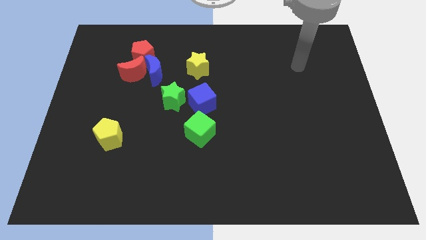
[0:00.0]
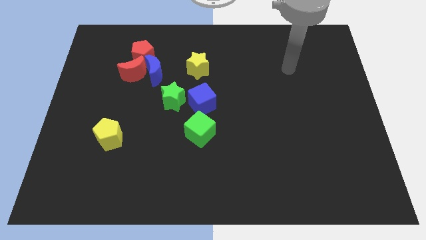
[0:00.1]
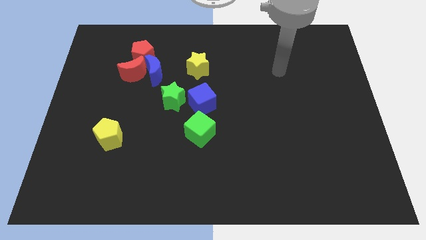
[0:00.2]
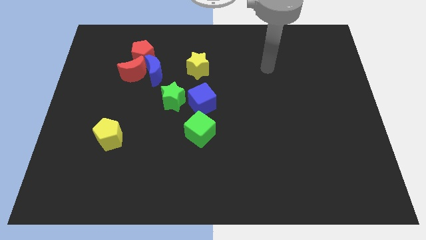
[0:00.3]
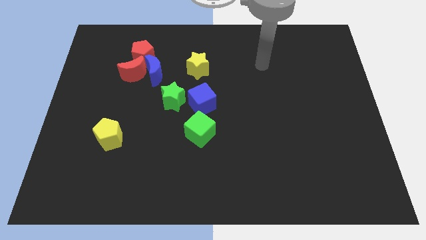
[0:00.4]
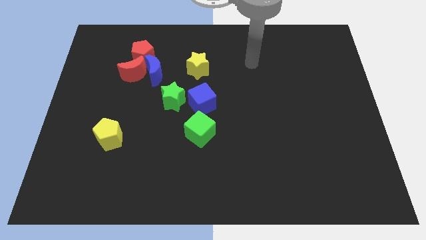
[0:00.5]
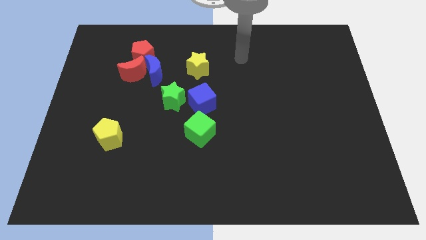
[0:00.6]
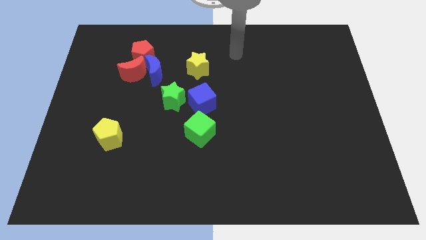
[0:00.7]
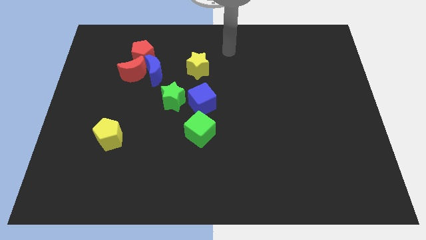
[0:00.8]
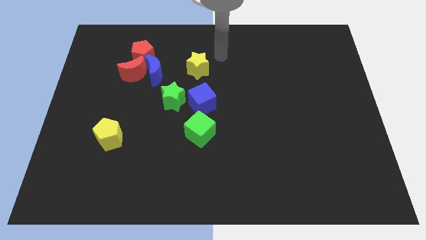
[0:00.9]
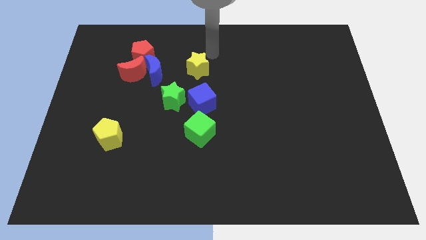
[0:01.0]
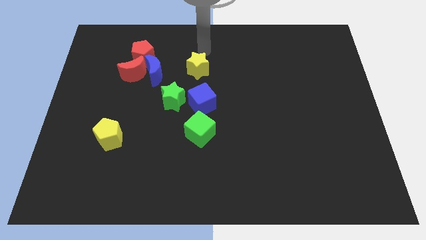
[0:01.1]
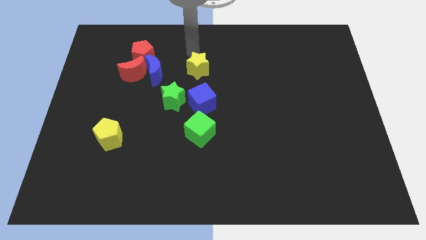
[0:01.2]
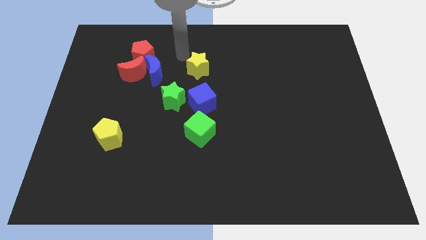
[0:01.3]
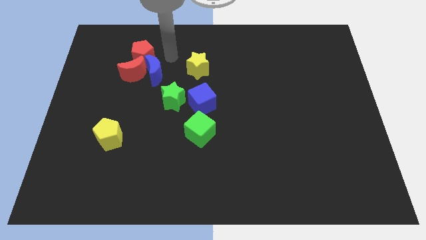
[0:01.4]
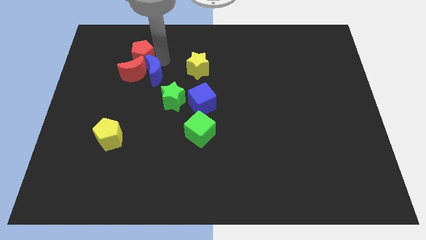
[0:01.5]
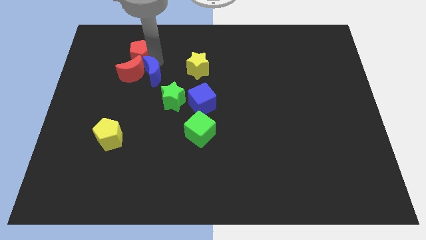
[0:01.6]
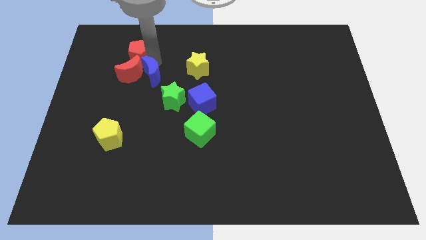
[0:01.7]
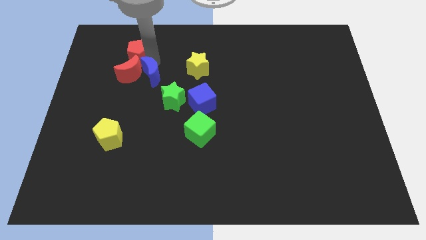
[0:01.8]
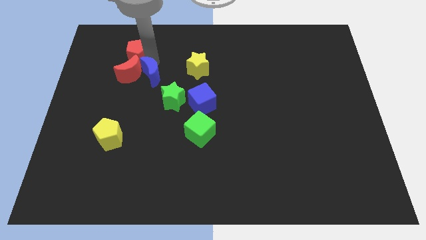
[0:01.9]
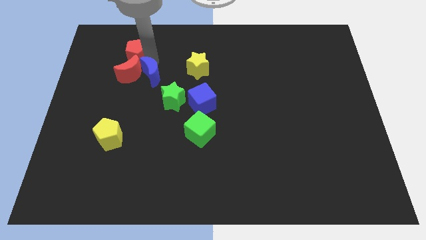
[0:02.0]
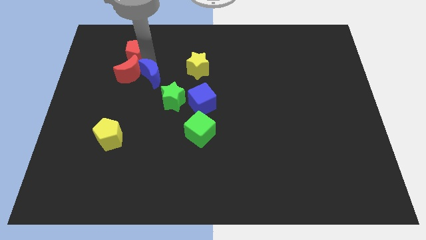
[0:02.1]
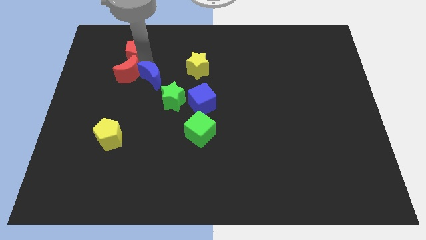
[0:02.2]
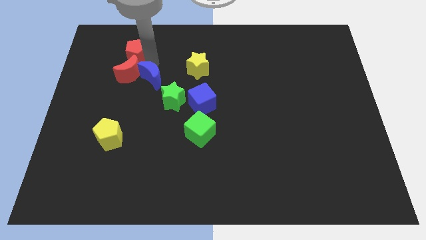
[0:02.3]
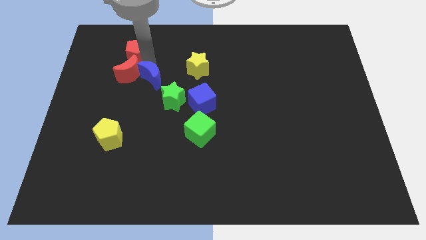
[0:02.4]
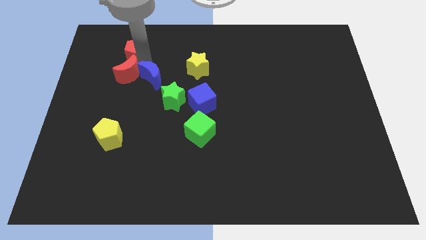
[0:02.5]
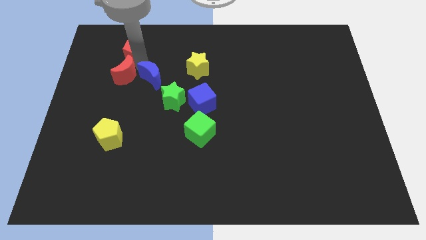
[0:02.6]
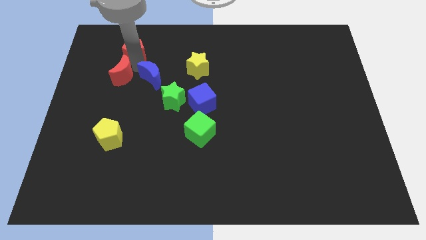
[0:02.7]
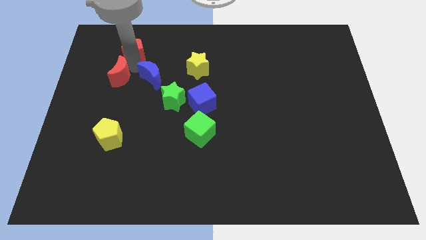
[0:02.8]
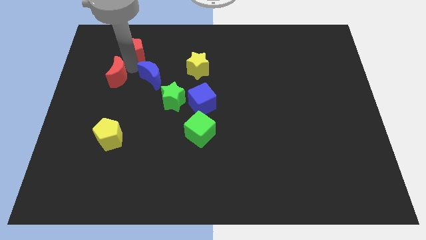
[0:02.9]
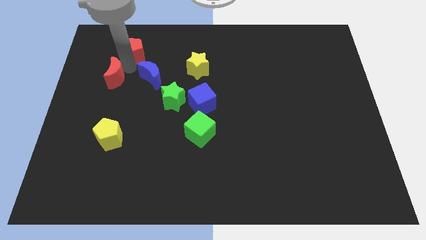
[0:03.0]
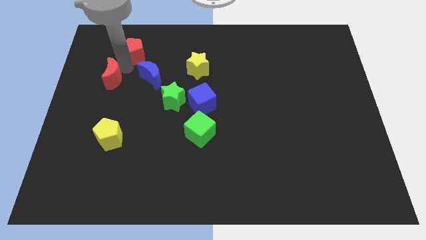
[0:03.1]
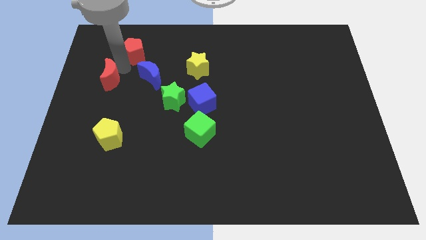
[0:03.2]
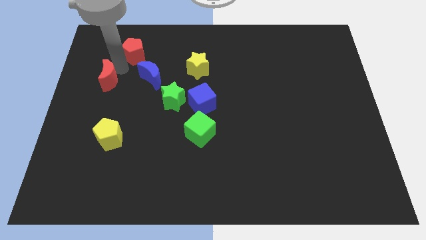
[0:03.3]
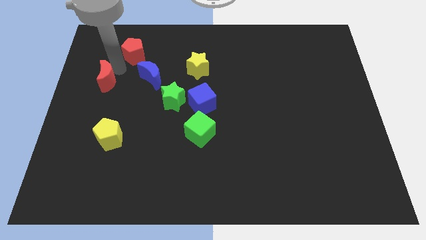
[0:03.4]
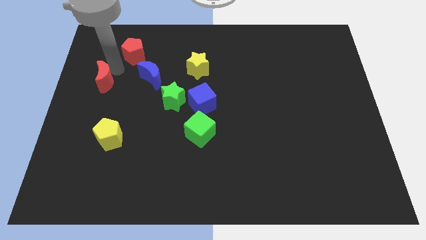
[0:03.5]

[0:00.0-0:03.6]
pull the red moon apart from the blue moon and red pentagon

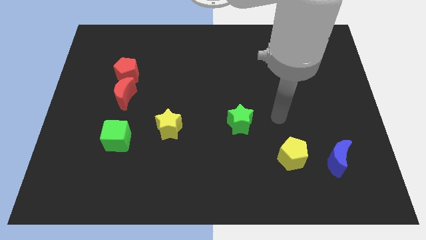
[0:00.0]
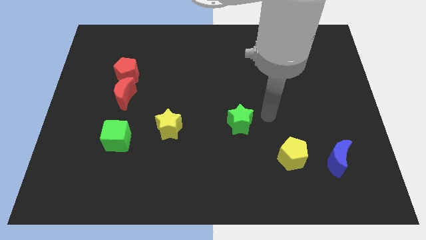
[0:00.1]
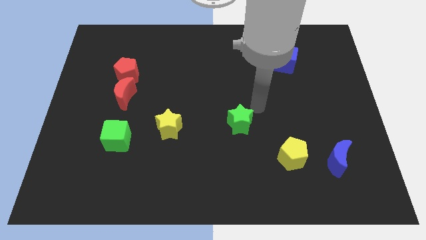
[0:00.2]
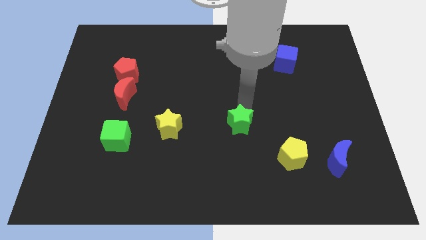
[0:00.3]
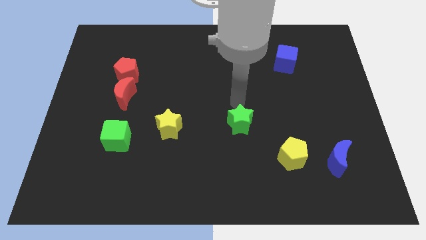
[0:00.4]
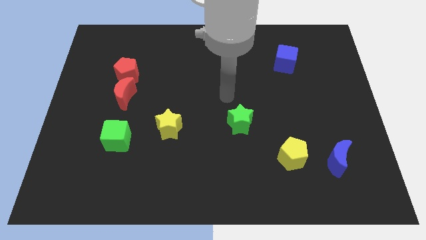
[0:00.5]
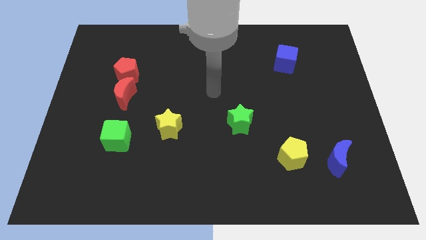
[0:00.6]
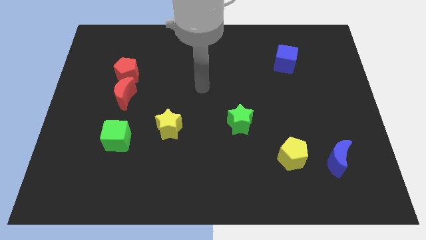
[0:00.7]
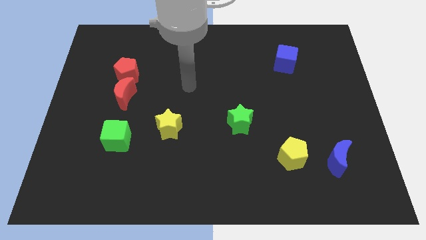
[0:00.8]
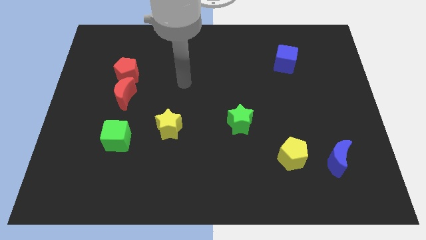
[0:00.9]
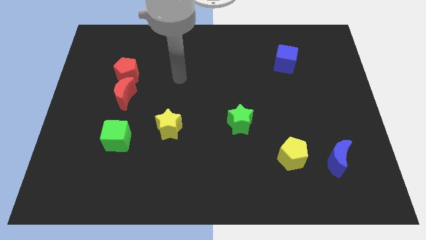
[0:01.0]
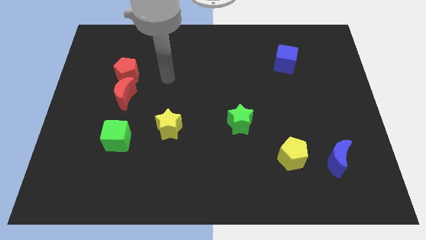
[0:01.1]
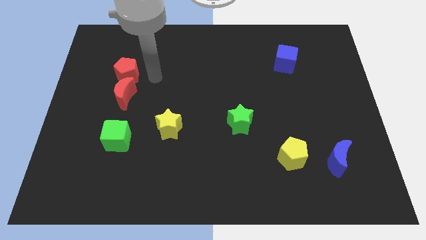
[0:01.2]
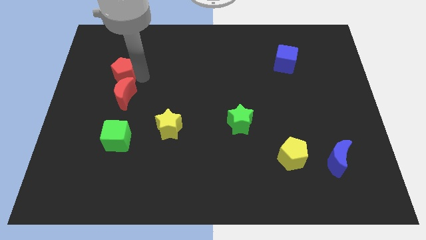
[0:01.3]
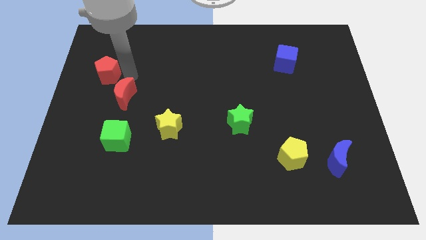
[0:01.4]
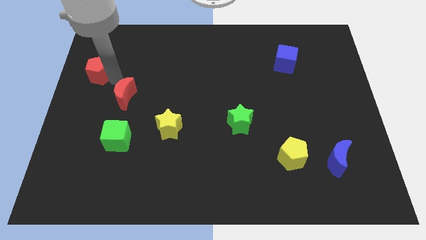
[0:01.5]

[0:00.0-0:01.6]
pull the red moon apart from the red pentagon

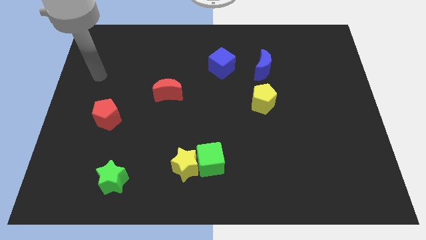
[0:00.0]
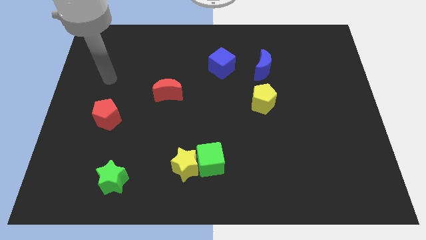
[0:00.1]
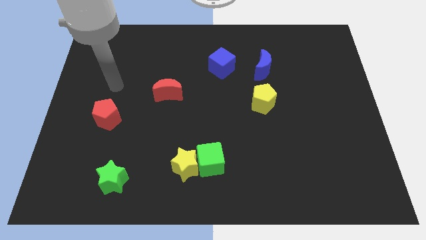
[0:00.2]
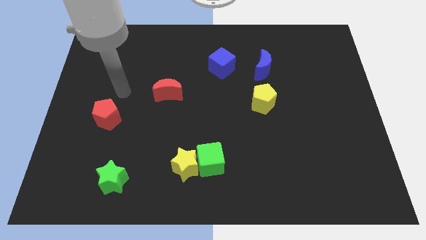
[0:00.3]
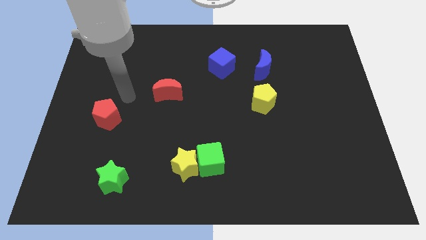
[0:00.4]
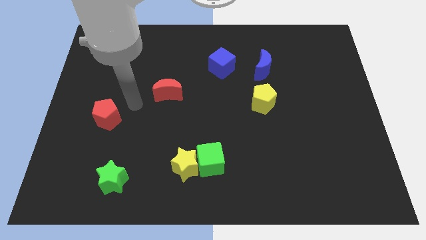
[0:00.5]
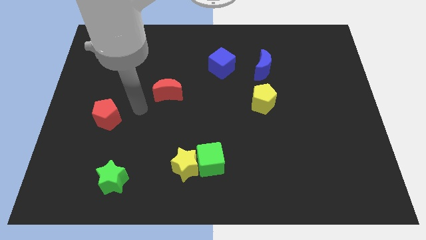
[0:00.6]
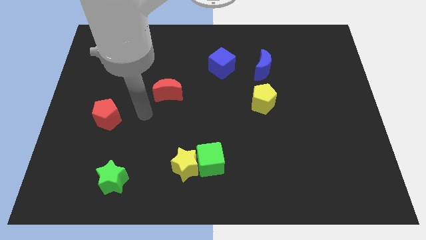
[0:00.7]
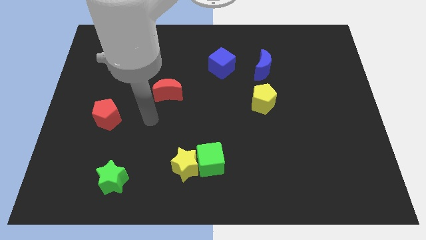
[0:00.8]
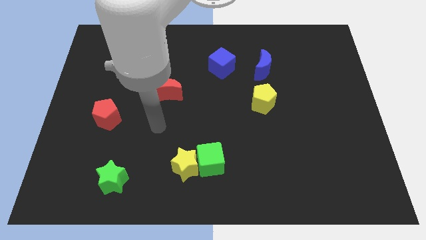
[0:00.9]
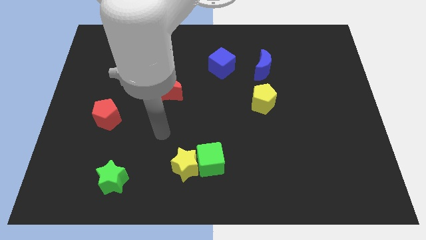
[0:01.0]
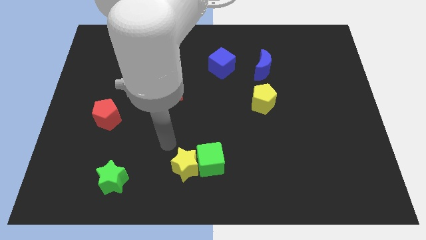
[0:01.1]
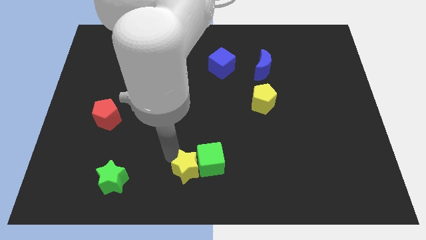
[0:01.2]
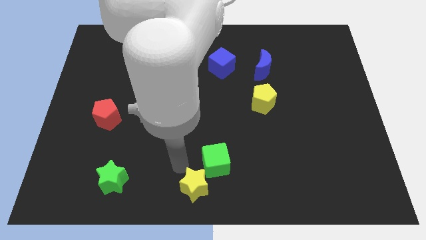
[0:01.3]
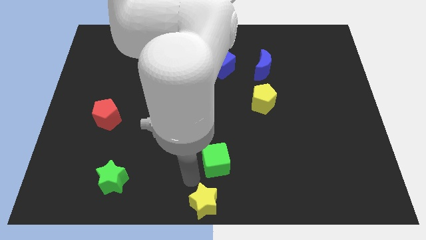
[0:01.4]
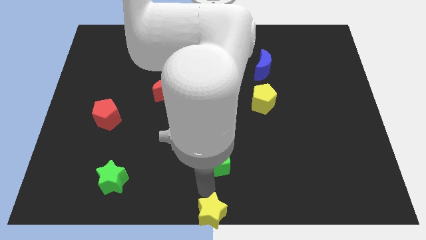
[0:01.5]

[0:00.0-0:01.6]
move the green cube away from the yellow star

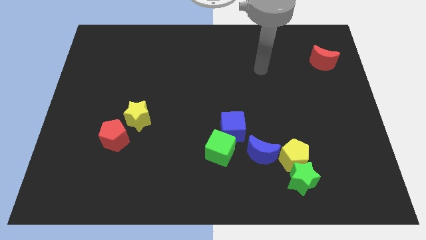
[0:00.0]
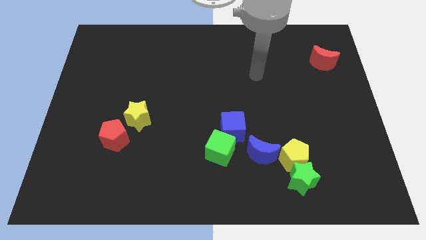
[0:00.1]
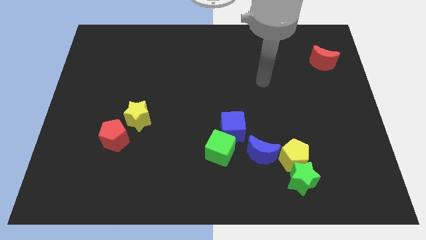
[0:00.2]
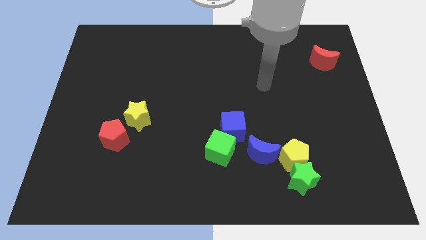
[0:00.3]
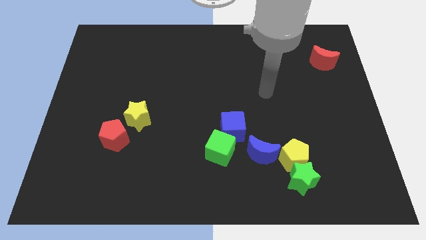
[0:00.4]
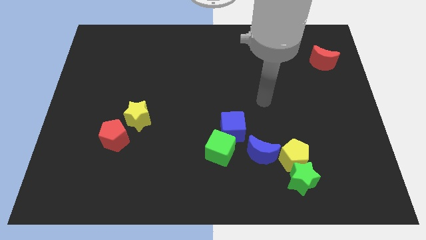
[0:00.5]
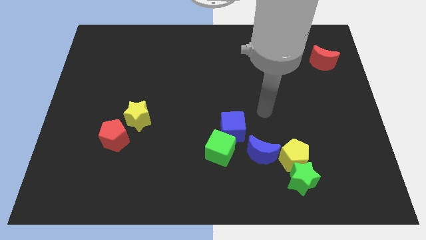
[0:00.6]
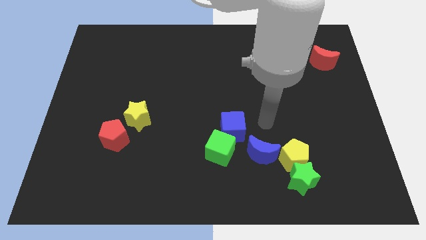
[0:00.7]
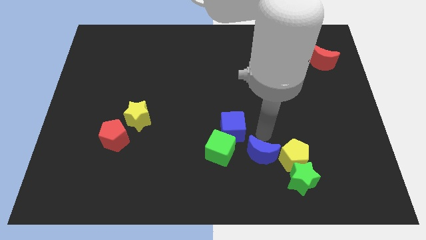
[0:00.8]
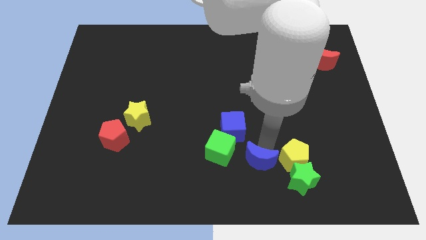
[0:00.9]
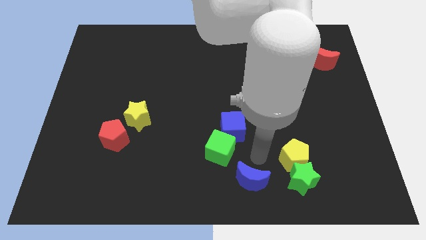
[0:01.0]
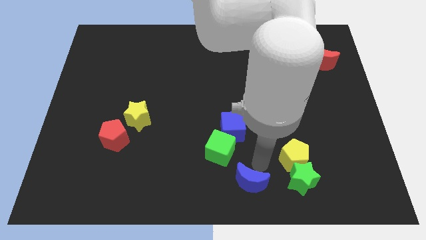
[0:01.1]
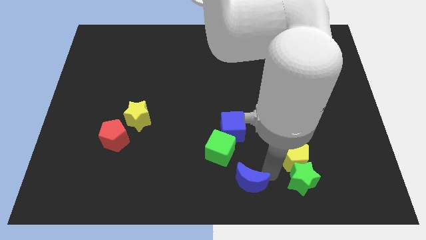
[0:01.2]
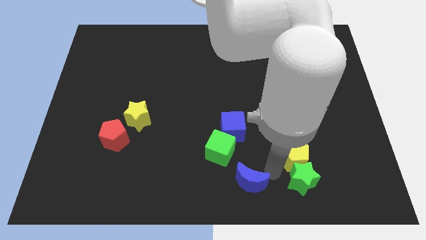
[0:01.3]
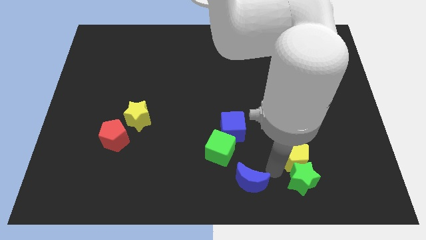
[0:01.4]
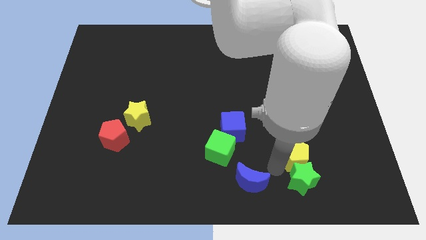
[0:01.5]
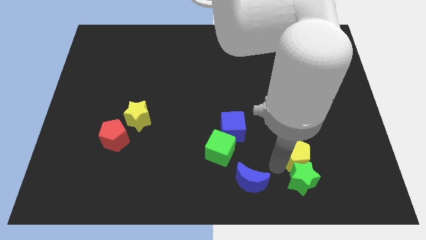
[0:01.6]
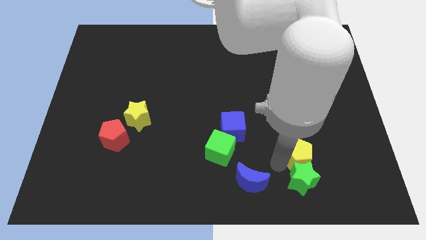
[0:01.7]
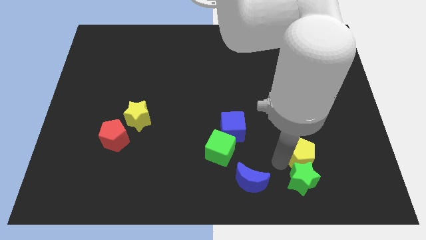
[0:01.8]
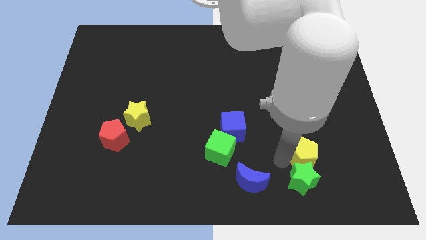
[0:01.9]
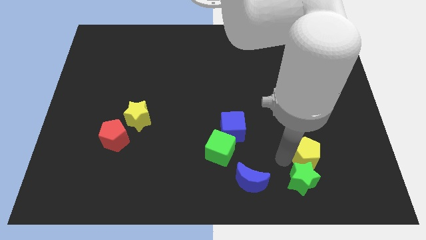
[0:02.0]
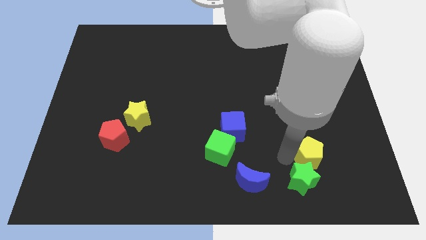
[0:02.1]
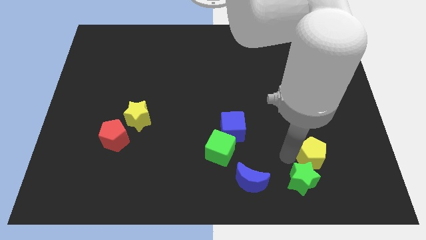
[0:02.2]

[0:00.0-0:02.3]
move the yellow pentagon away from the green star and blue moon

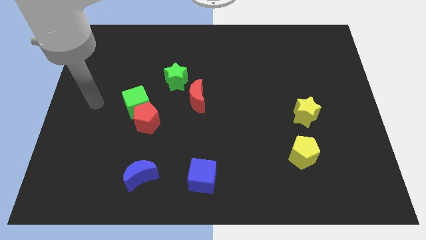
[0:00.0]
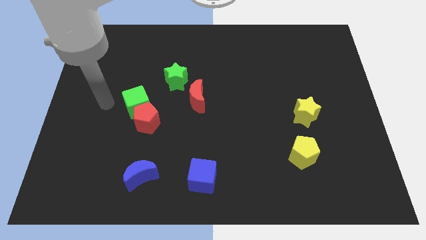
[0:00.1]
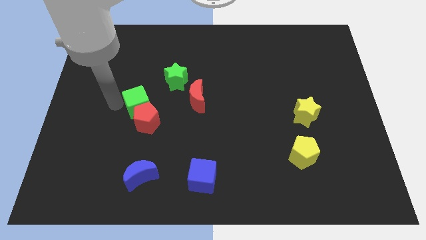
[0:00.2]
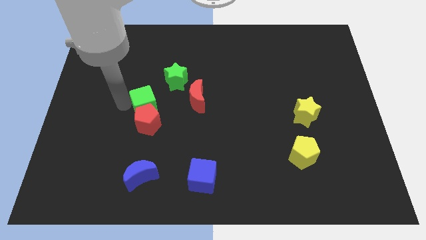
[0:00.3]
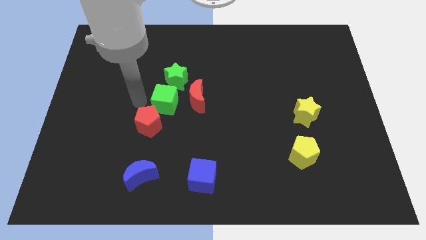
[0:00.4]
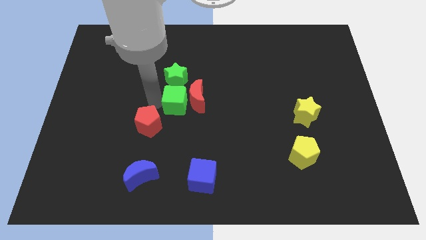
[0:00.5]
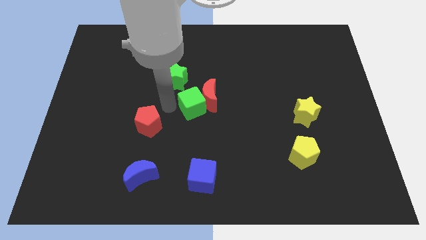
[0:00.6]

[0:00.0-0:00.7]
separate the red pentagon from the green cube
